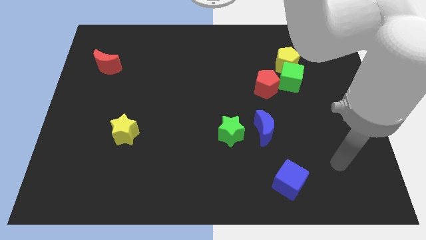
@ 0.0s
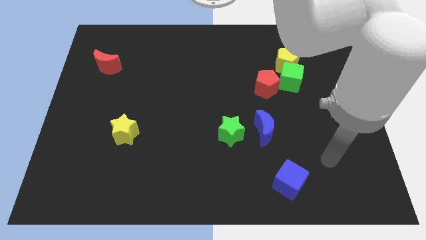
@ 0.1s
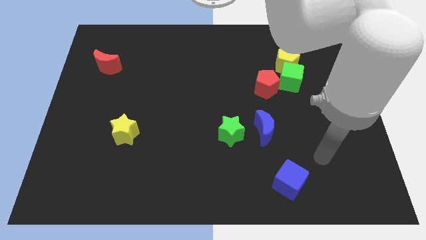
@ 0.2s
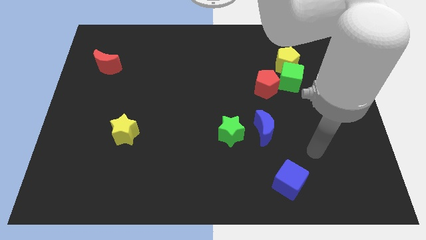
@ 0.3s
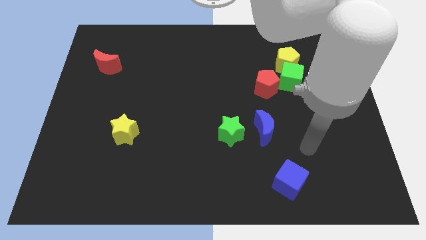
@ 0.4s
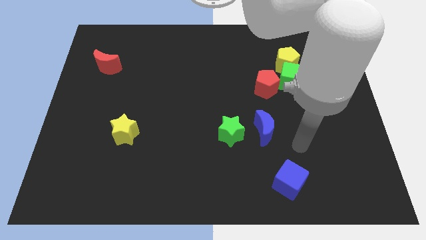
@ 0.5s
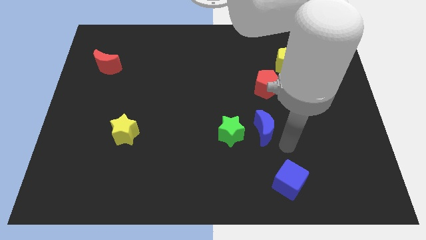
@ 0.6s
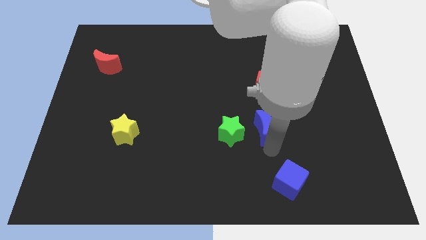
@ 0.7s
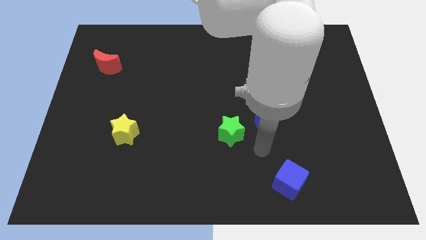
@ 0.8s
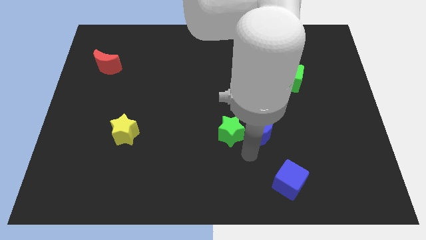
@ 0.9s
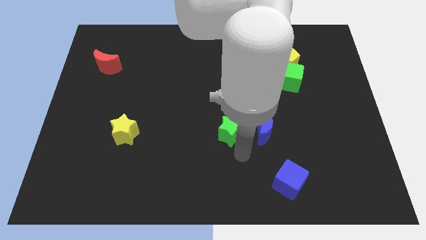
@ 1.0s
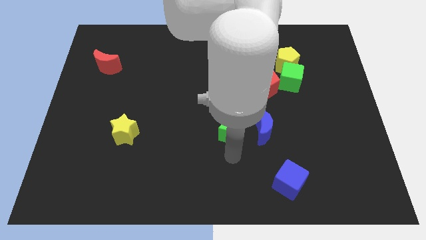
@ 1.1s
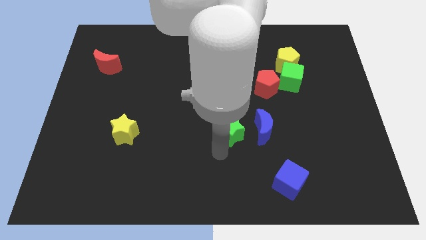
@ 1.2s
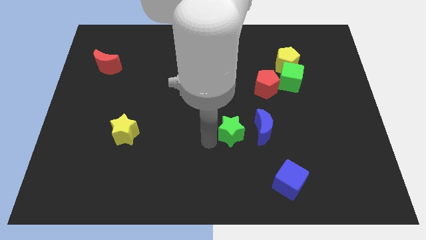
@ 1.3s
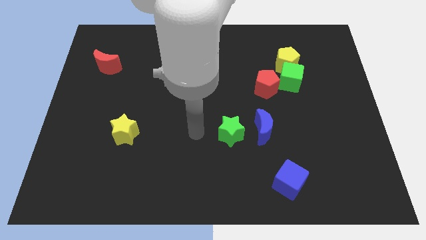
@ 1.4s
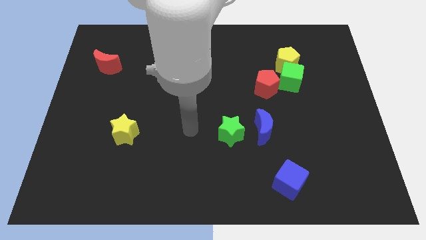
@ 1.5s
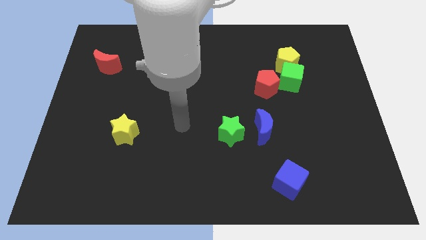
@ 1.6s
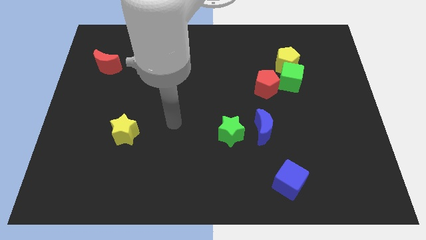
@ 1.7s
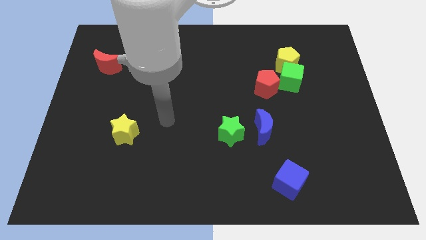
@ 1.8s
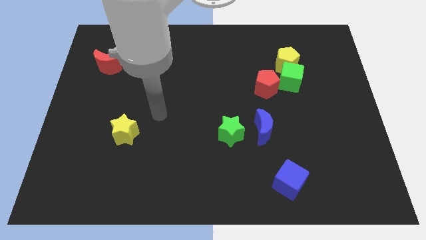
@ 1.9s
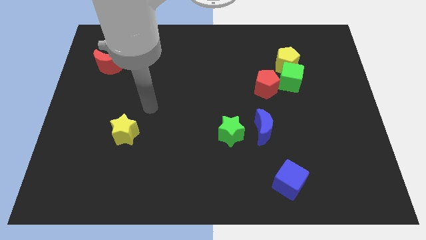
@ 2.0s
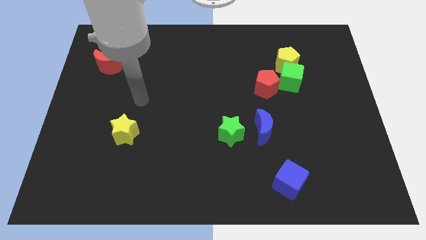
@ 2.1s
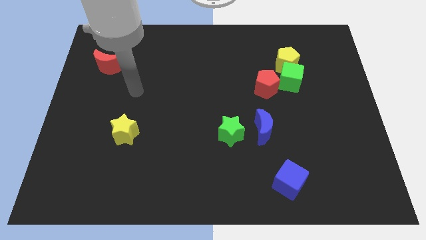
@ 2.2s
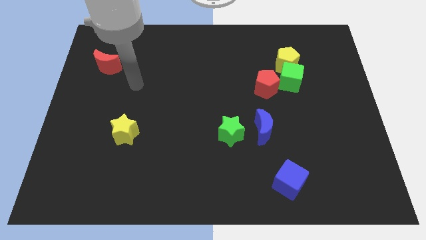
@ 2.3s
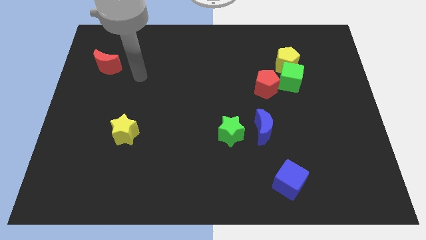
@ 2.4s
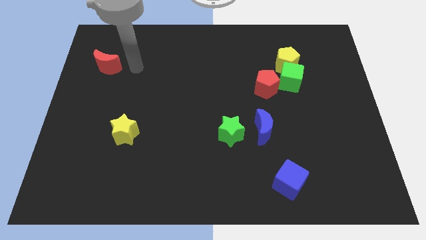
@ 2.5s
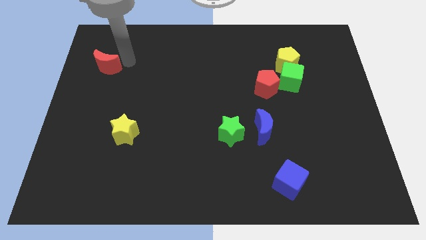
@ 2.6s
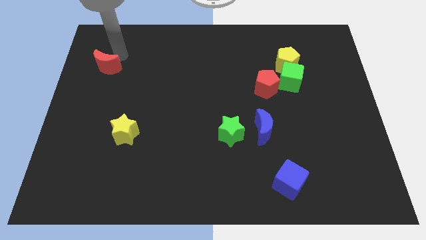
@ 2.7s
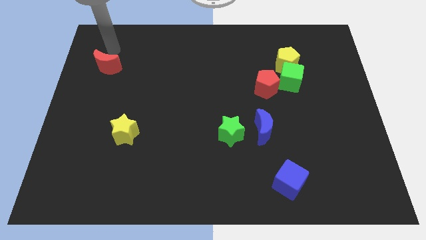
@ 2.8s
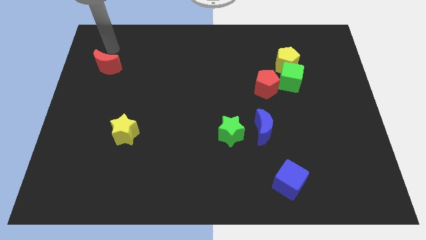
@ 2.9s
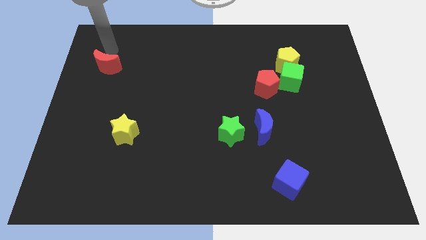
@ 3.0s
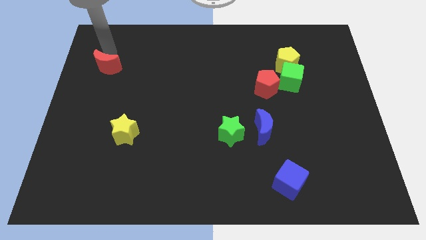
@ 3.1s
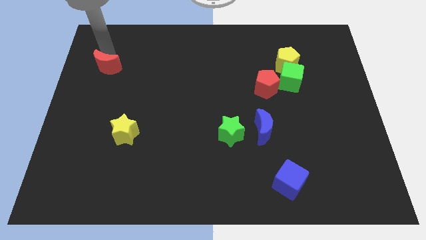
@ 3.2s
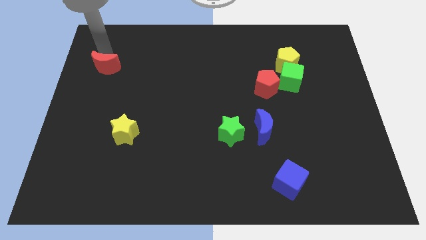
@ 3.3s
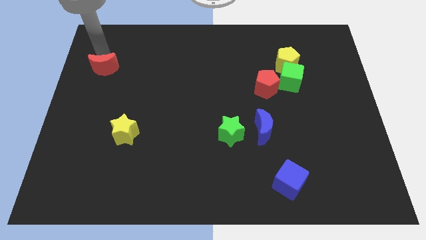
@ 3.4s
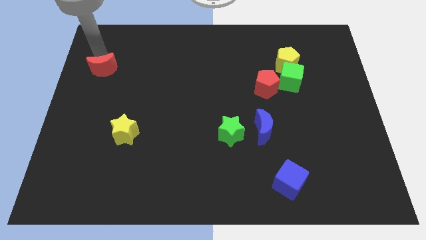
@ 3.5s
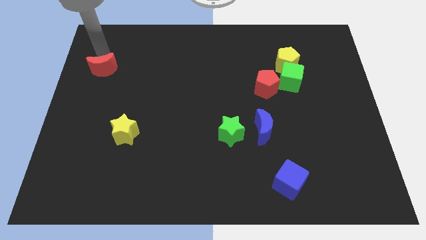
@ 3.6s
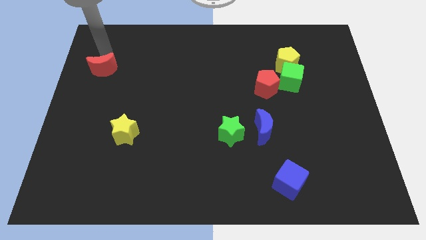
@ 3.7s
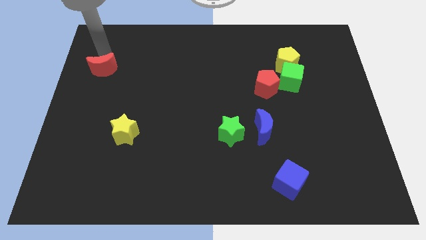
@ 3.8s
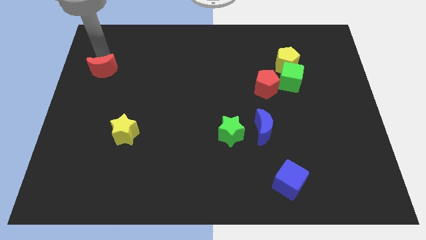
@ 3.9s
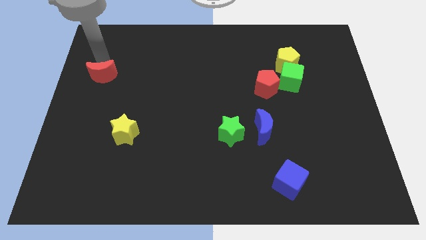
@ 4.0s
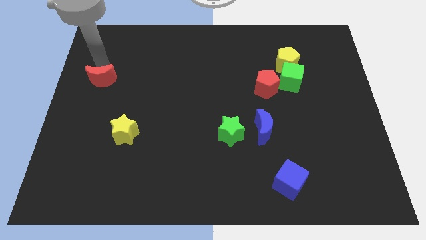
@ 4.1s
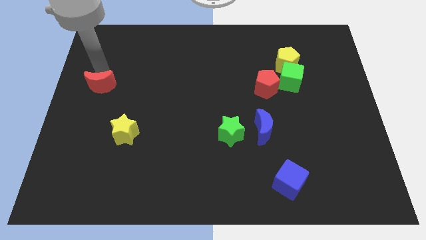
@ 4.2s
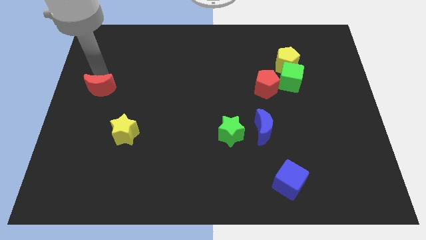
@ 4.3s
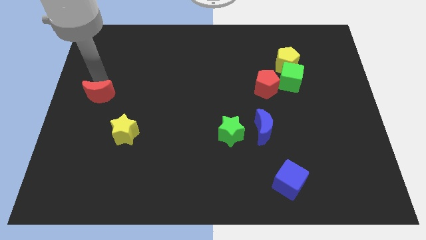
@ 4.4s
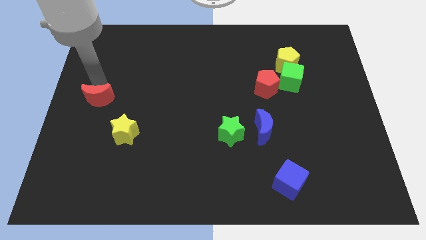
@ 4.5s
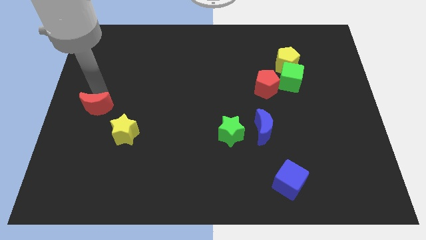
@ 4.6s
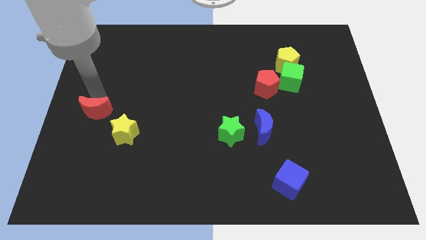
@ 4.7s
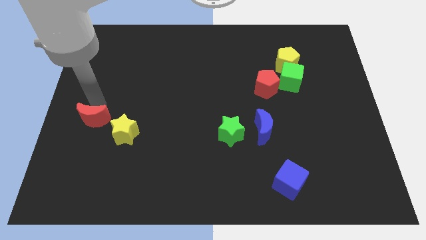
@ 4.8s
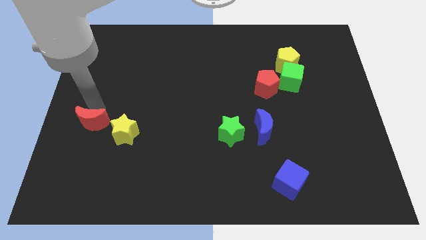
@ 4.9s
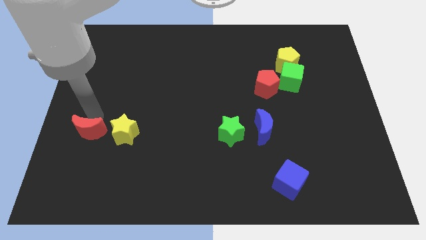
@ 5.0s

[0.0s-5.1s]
slide the red moon down

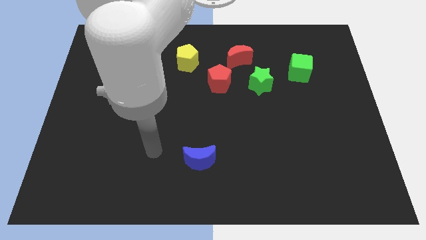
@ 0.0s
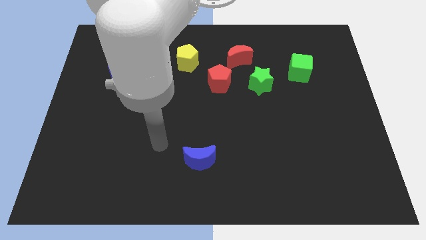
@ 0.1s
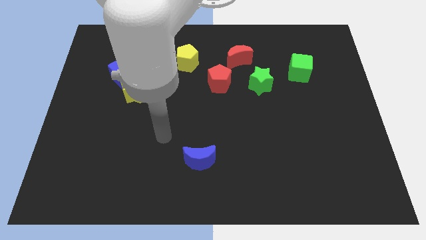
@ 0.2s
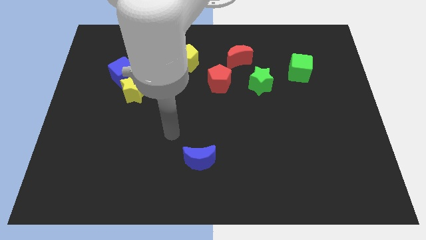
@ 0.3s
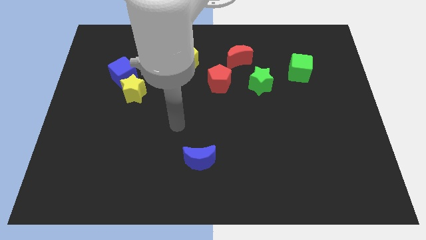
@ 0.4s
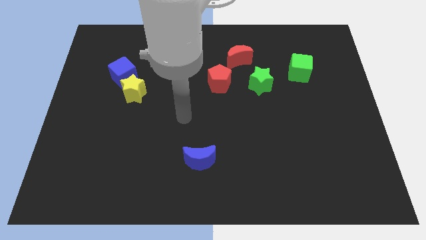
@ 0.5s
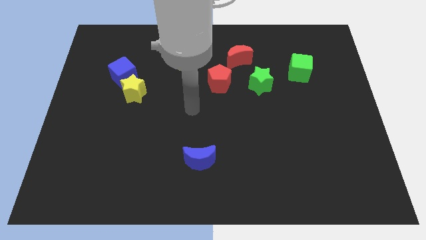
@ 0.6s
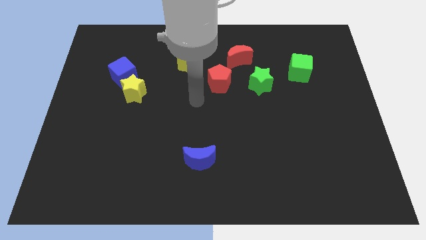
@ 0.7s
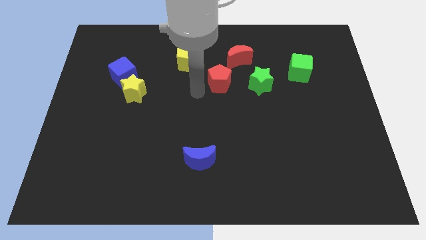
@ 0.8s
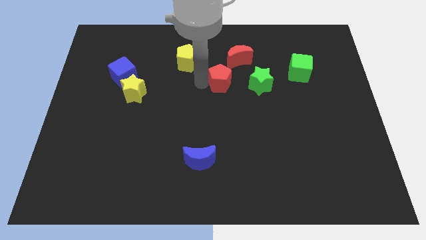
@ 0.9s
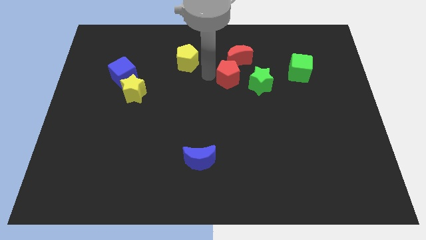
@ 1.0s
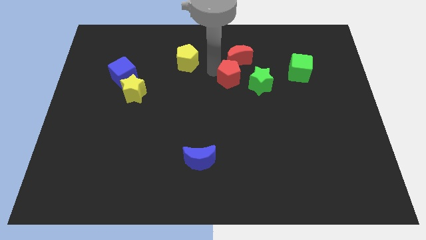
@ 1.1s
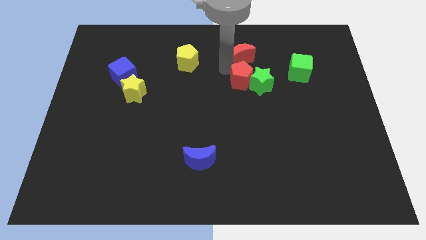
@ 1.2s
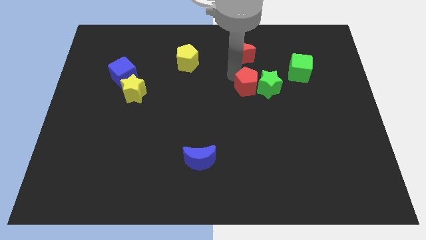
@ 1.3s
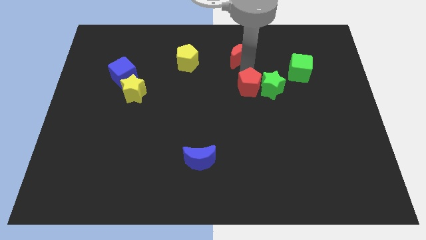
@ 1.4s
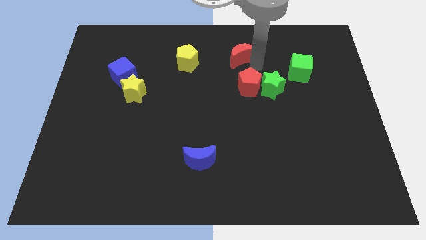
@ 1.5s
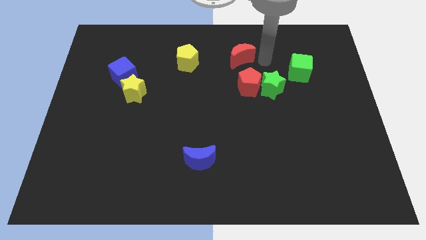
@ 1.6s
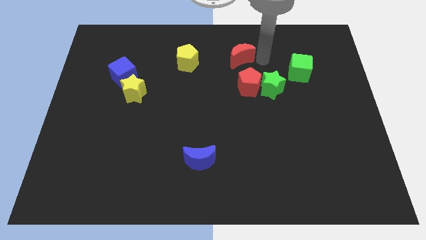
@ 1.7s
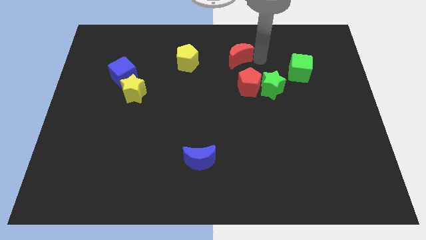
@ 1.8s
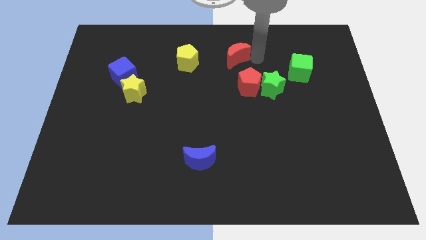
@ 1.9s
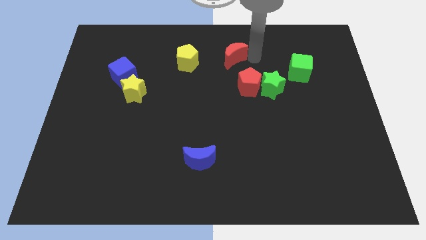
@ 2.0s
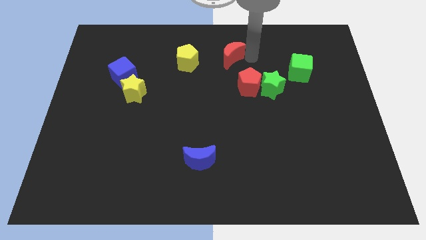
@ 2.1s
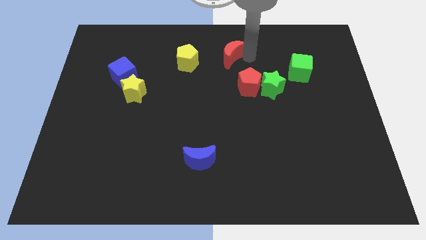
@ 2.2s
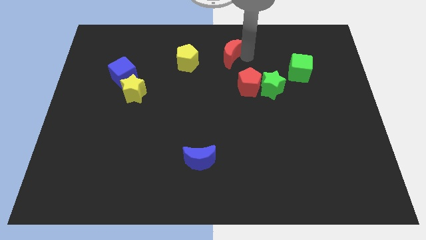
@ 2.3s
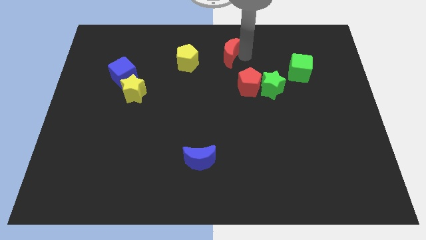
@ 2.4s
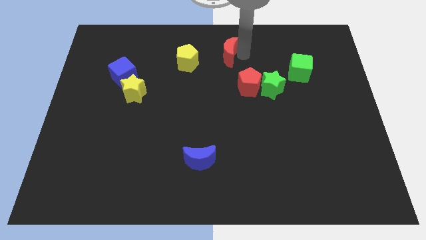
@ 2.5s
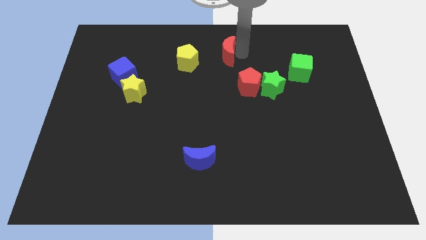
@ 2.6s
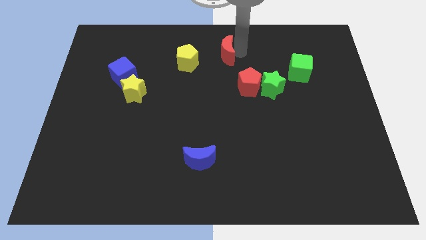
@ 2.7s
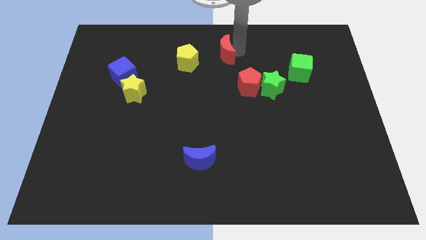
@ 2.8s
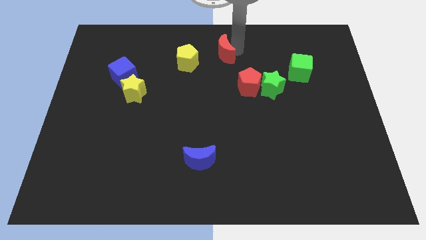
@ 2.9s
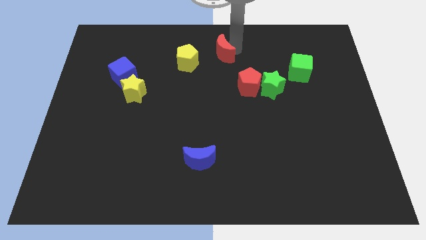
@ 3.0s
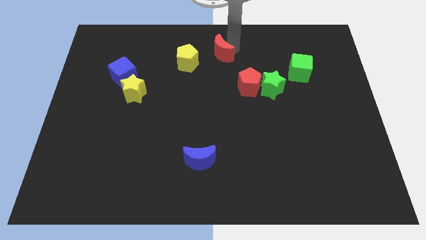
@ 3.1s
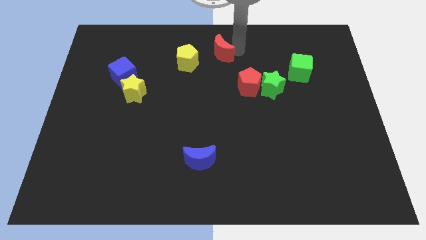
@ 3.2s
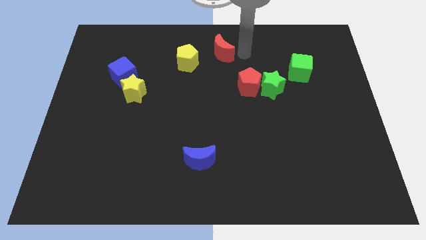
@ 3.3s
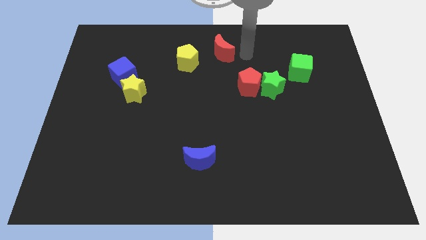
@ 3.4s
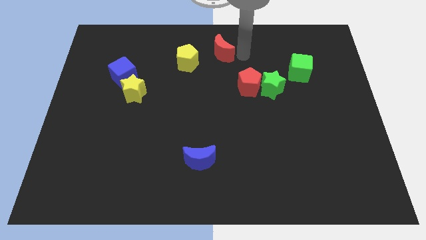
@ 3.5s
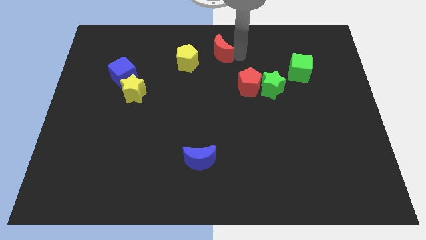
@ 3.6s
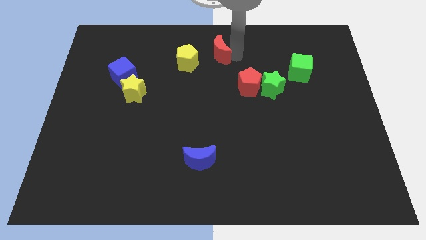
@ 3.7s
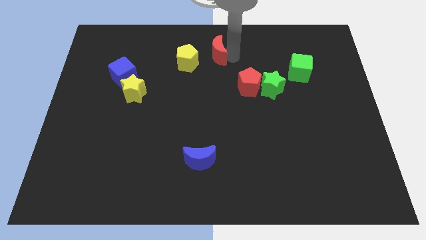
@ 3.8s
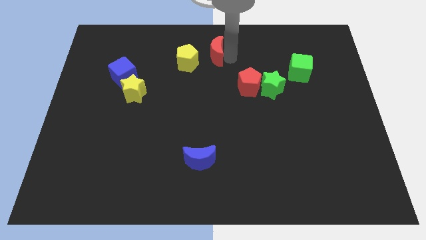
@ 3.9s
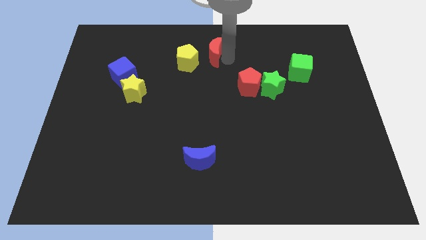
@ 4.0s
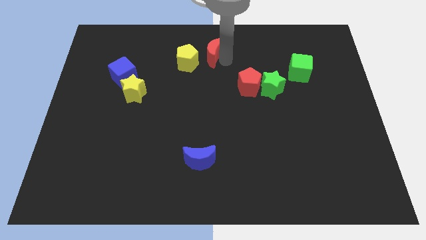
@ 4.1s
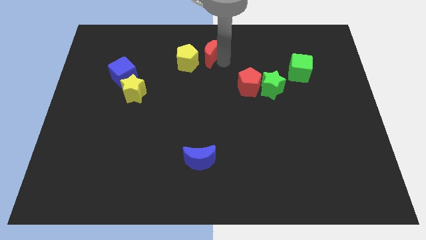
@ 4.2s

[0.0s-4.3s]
slightly push the red moon to the left
